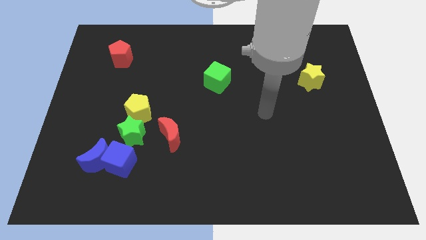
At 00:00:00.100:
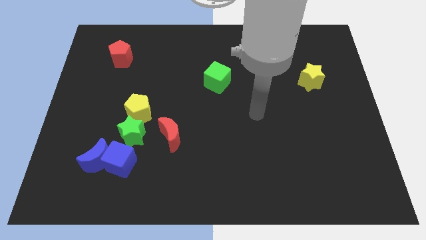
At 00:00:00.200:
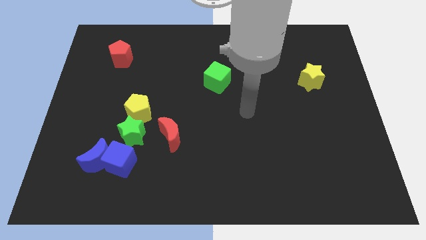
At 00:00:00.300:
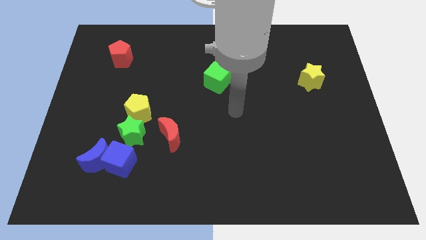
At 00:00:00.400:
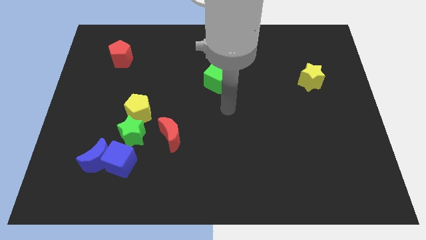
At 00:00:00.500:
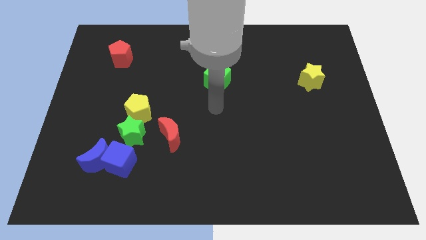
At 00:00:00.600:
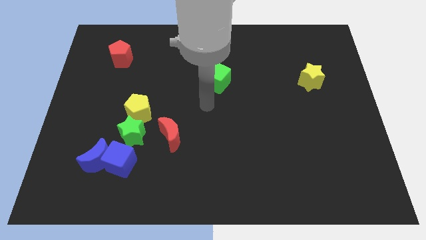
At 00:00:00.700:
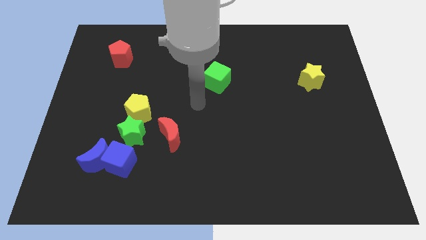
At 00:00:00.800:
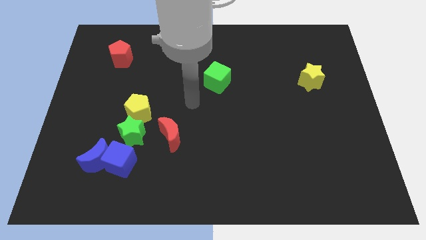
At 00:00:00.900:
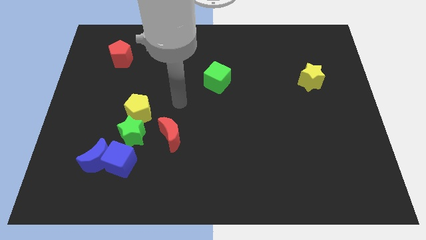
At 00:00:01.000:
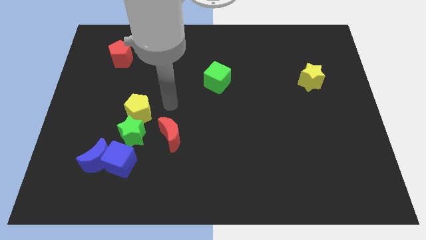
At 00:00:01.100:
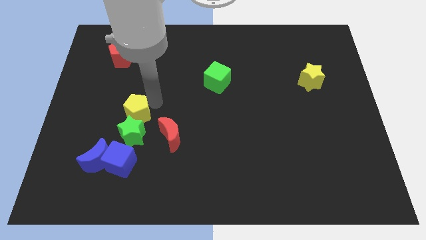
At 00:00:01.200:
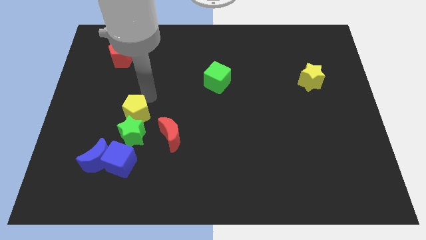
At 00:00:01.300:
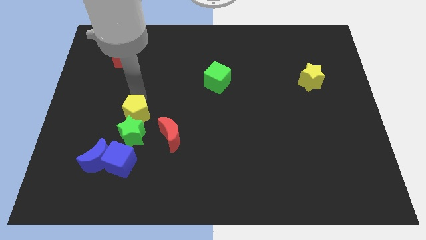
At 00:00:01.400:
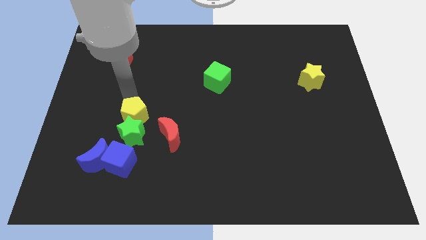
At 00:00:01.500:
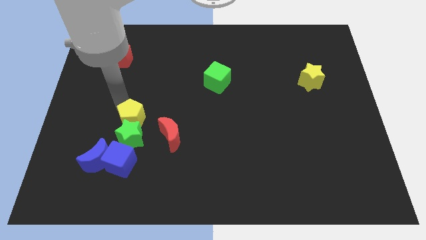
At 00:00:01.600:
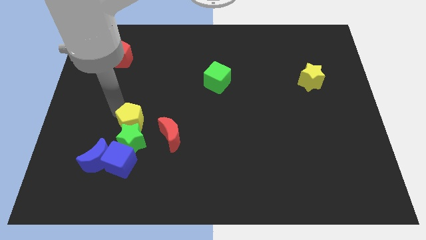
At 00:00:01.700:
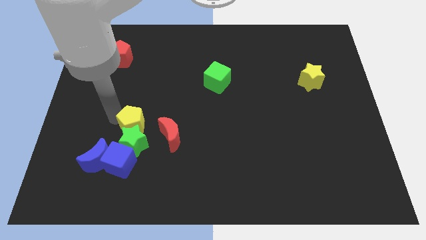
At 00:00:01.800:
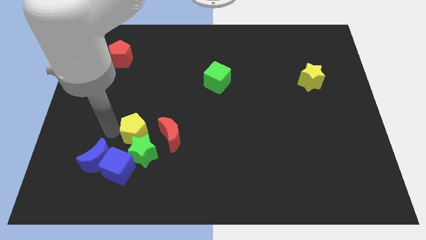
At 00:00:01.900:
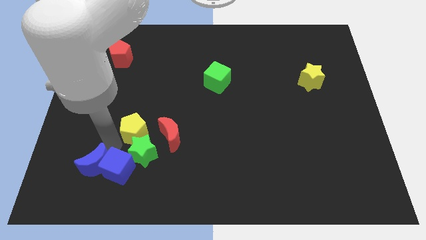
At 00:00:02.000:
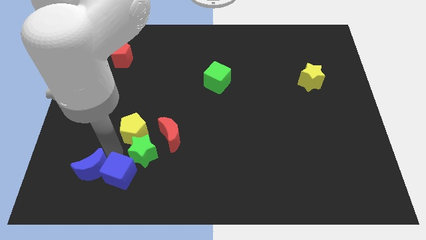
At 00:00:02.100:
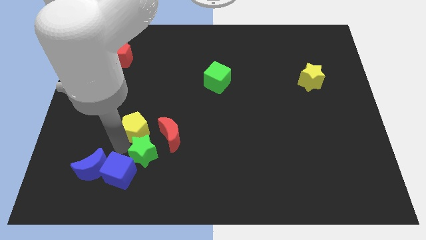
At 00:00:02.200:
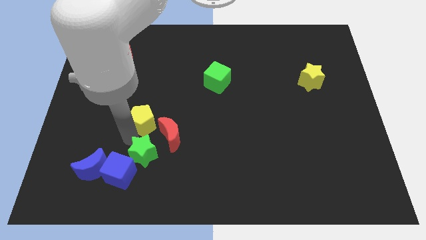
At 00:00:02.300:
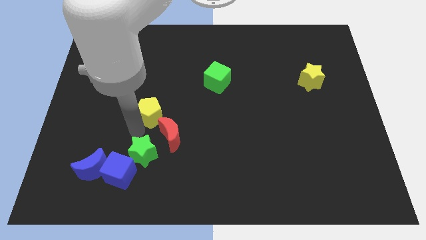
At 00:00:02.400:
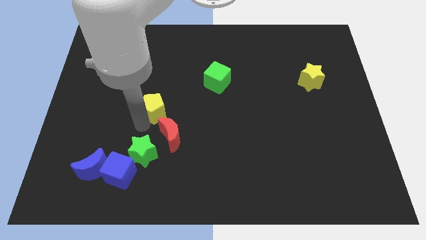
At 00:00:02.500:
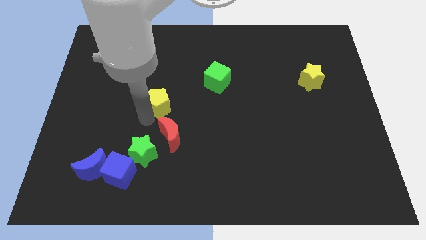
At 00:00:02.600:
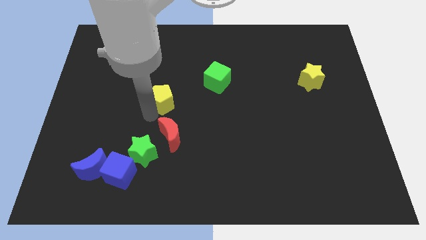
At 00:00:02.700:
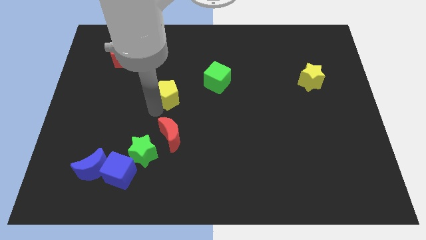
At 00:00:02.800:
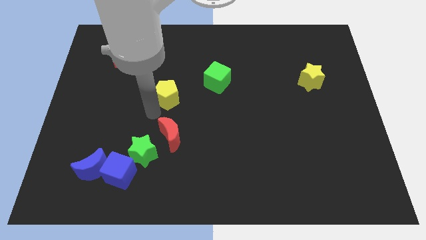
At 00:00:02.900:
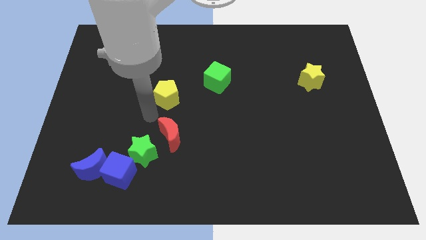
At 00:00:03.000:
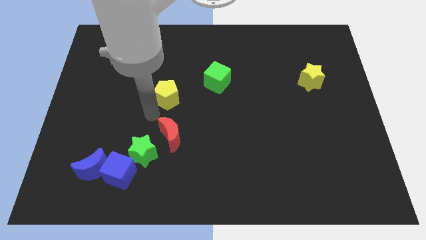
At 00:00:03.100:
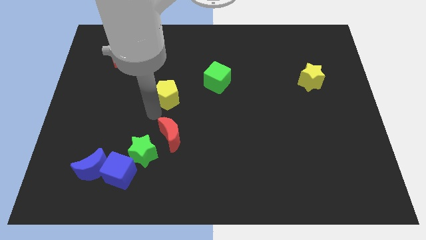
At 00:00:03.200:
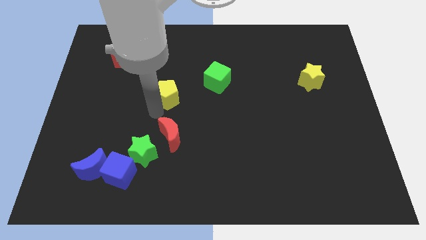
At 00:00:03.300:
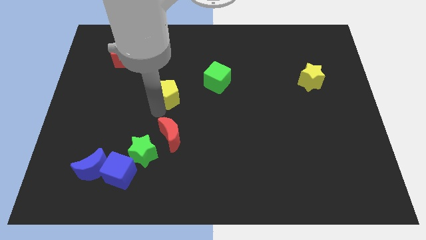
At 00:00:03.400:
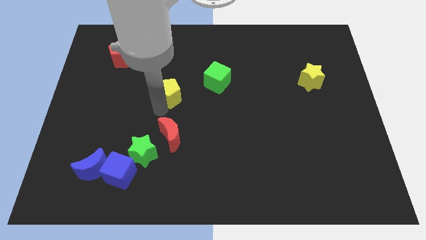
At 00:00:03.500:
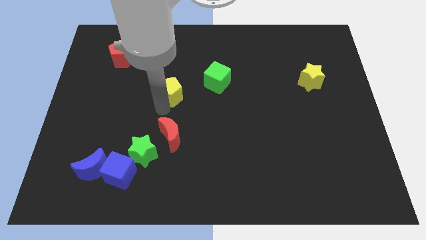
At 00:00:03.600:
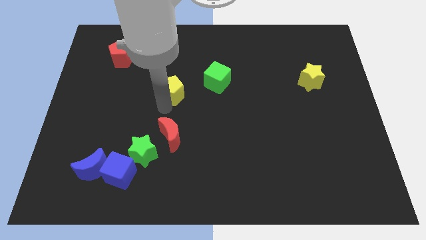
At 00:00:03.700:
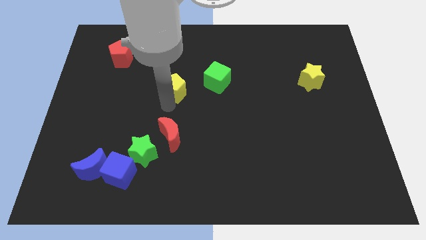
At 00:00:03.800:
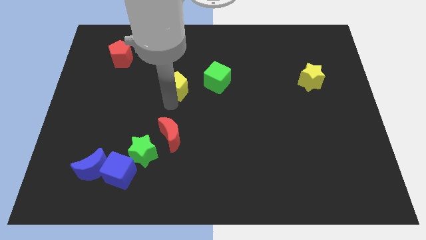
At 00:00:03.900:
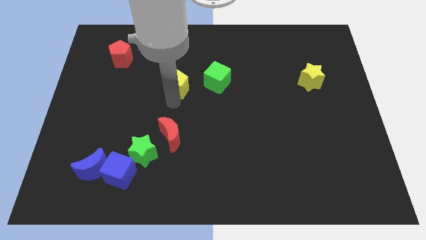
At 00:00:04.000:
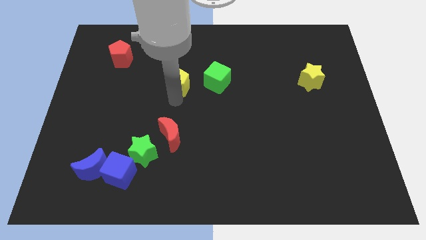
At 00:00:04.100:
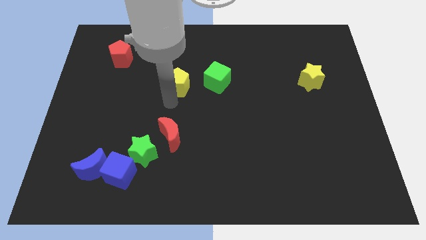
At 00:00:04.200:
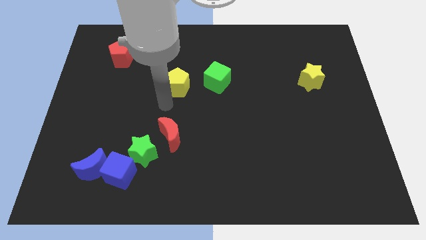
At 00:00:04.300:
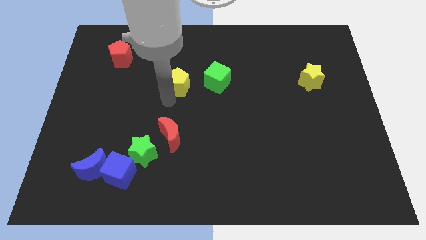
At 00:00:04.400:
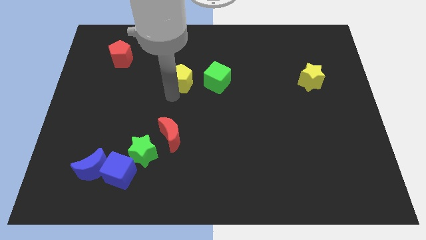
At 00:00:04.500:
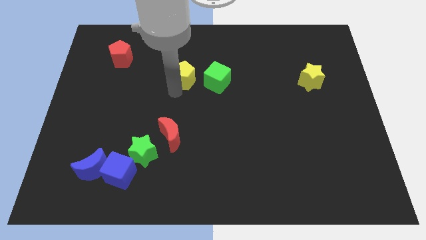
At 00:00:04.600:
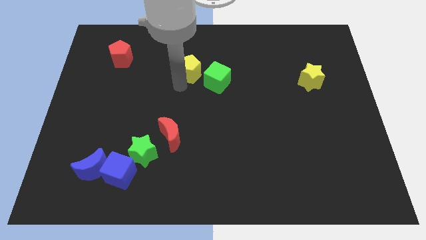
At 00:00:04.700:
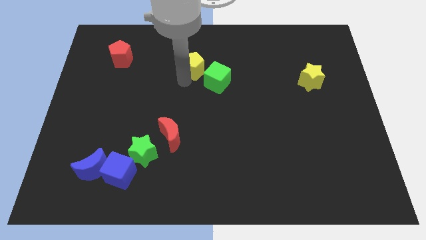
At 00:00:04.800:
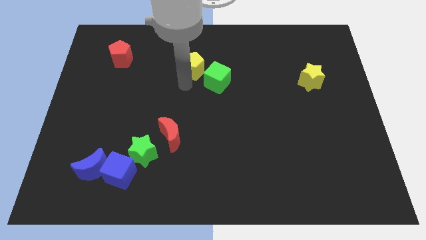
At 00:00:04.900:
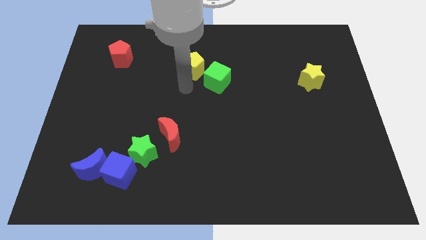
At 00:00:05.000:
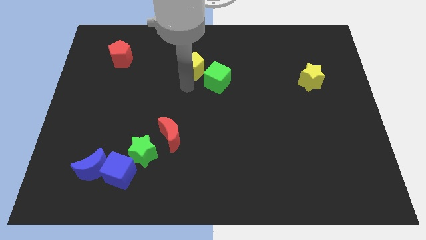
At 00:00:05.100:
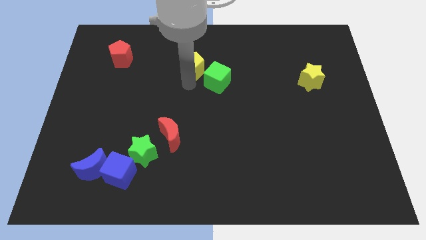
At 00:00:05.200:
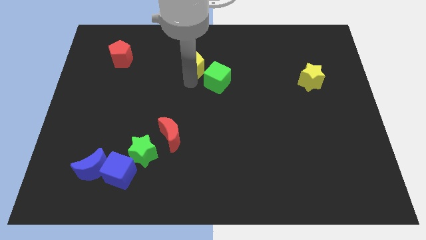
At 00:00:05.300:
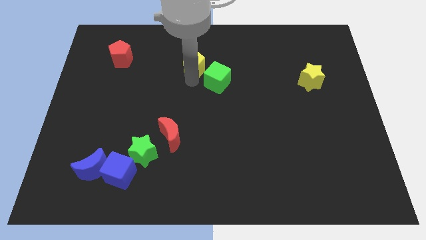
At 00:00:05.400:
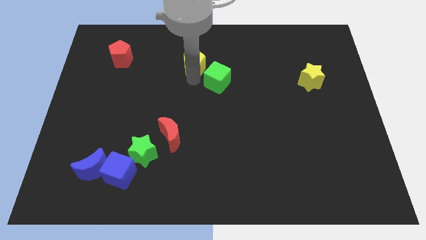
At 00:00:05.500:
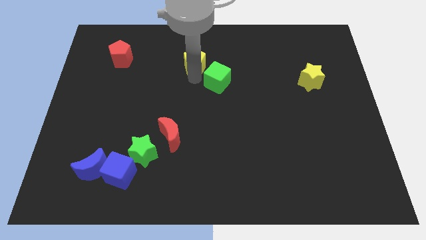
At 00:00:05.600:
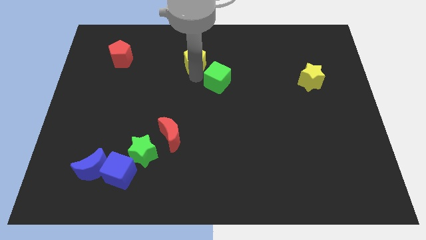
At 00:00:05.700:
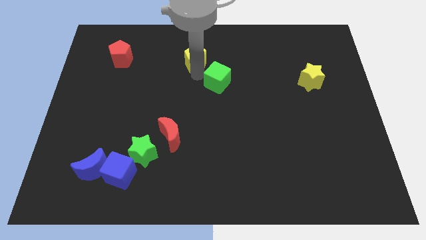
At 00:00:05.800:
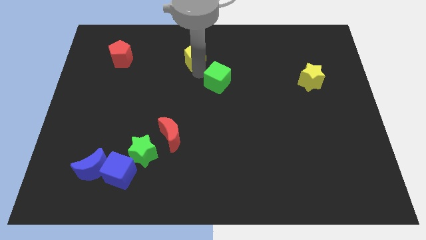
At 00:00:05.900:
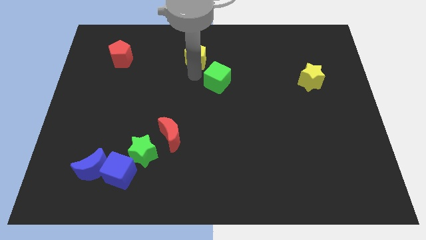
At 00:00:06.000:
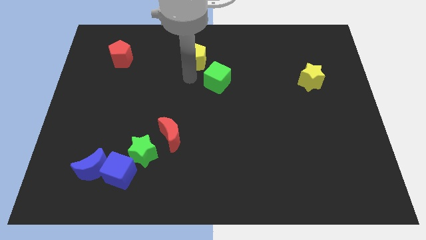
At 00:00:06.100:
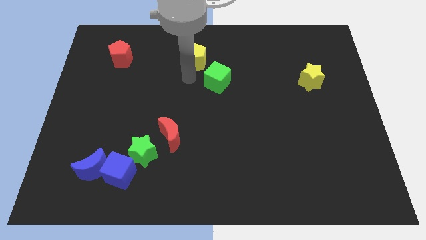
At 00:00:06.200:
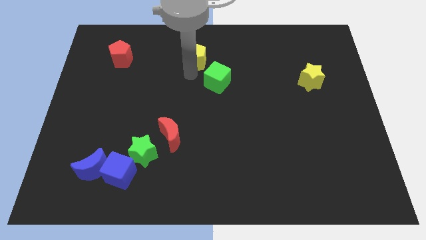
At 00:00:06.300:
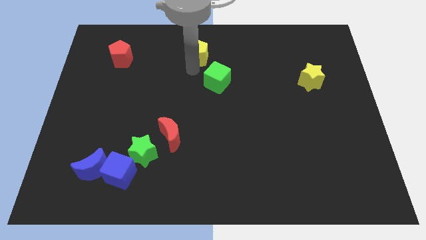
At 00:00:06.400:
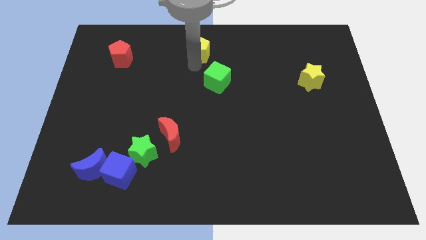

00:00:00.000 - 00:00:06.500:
push the yellow pentagon to the towards your base

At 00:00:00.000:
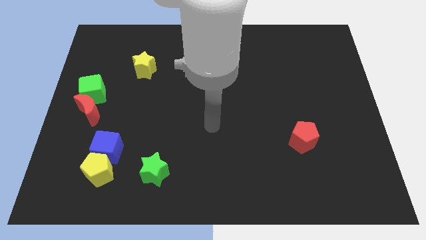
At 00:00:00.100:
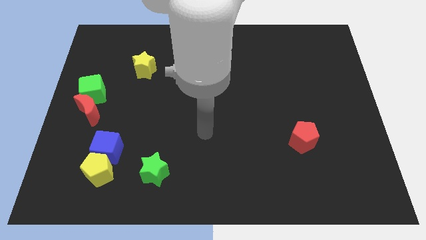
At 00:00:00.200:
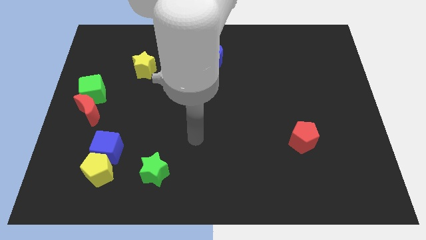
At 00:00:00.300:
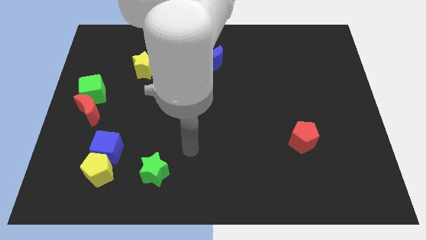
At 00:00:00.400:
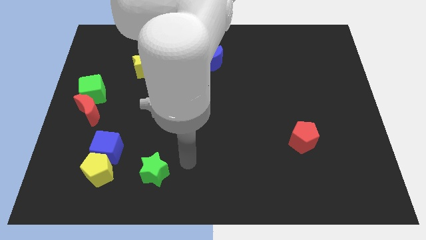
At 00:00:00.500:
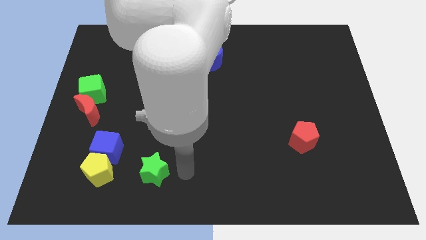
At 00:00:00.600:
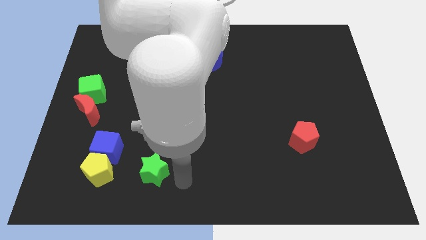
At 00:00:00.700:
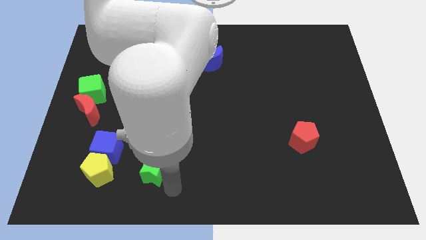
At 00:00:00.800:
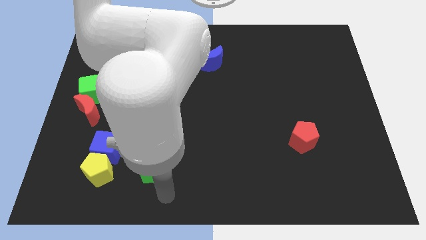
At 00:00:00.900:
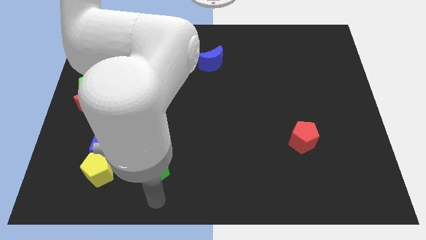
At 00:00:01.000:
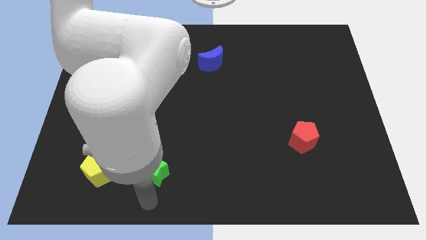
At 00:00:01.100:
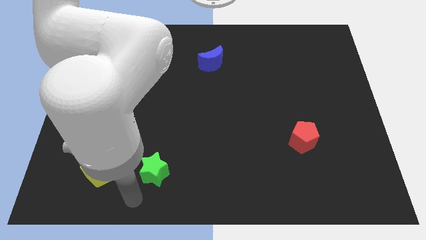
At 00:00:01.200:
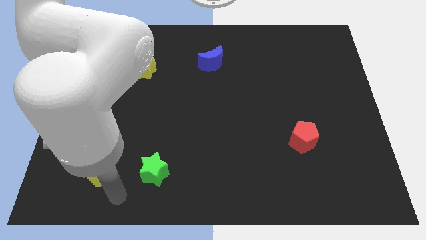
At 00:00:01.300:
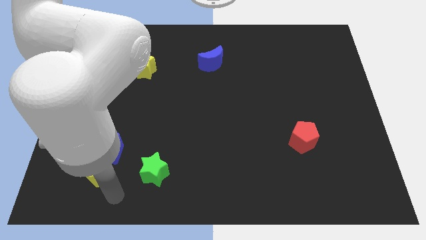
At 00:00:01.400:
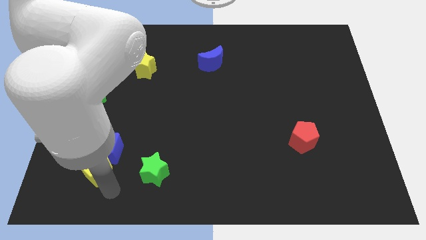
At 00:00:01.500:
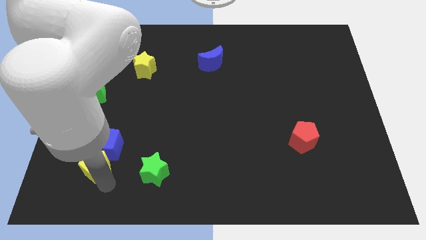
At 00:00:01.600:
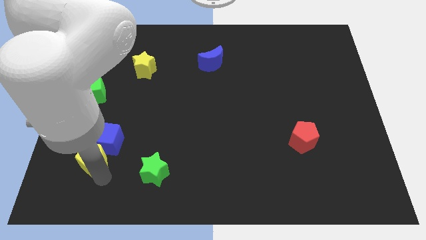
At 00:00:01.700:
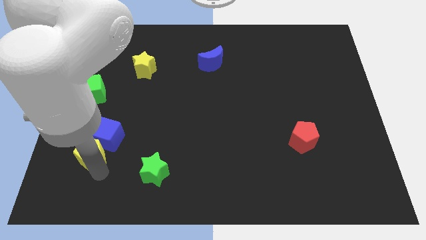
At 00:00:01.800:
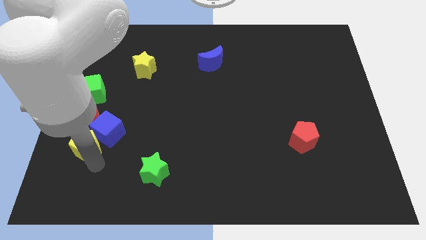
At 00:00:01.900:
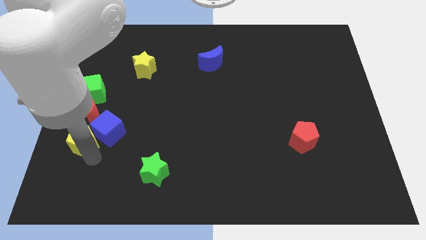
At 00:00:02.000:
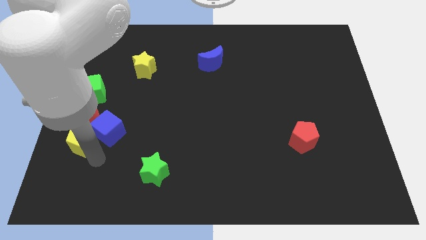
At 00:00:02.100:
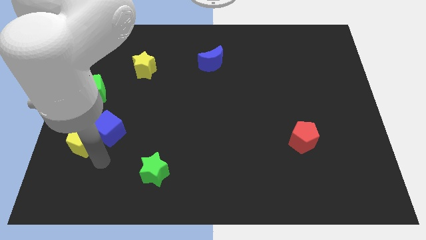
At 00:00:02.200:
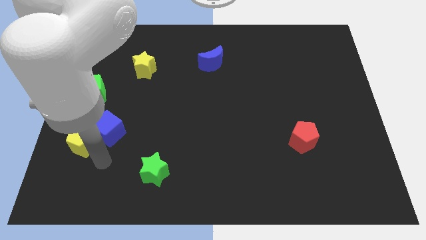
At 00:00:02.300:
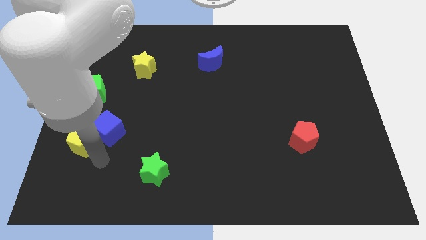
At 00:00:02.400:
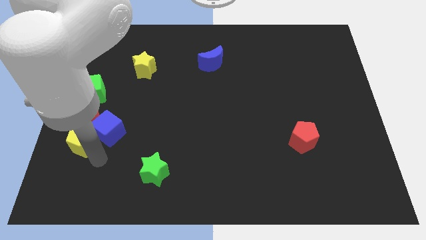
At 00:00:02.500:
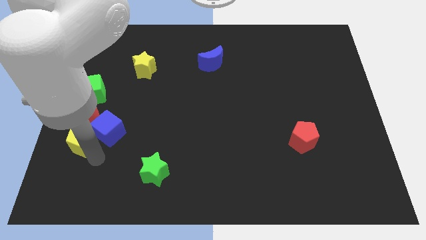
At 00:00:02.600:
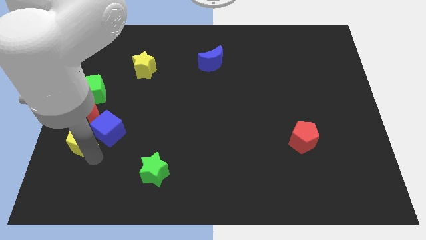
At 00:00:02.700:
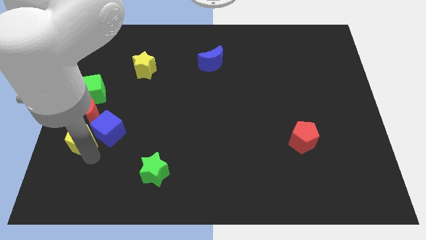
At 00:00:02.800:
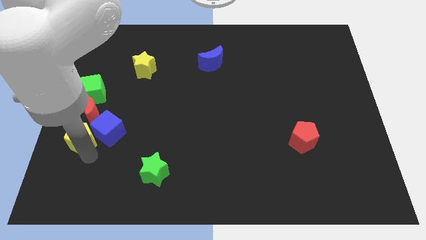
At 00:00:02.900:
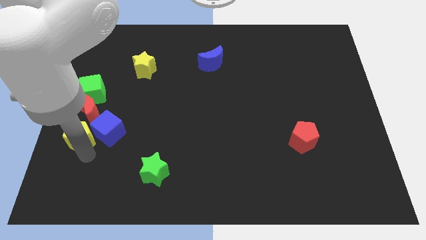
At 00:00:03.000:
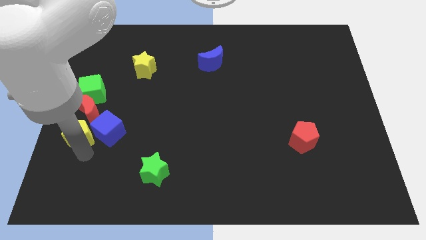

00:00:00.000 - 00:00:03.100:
push the yellow pentagon to the center left
